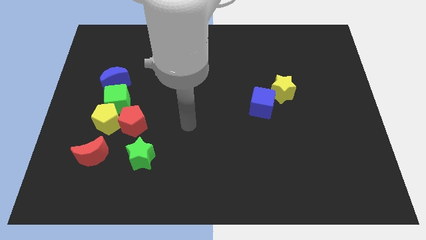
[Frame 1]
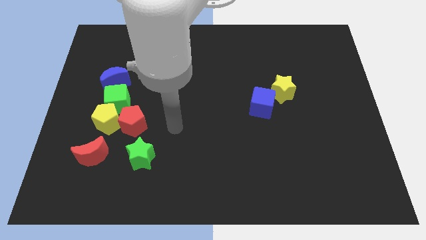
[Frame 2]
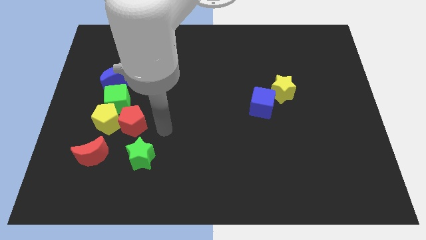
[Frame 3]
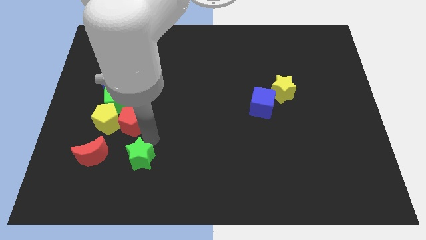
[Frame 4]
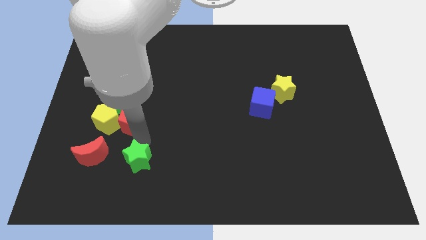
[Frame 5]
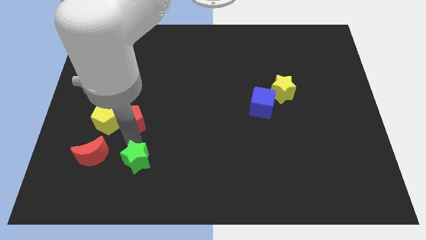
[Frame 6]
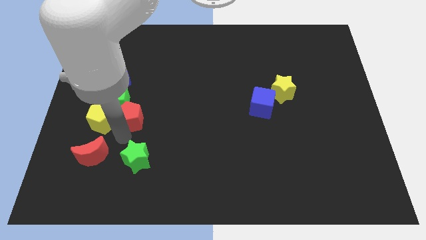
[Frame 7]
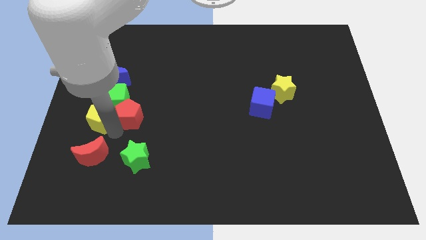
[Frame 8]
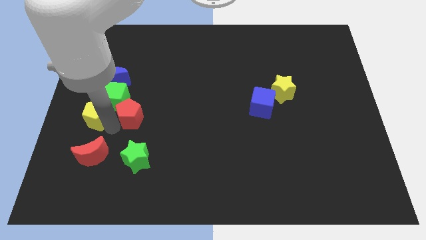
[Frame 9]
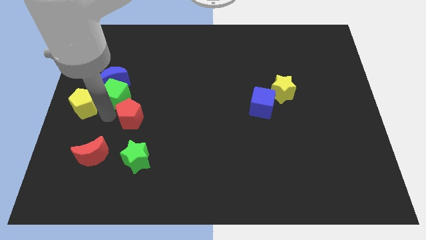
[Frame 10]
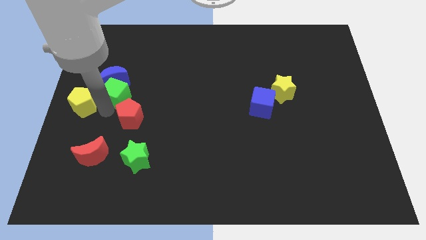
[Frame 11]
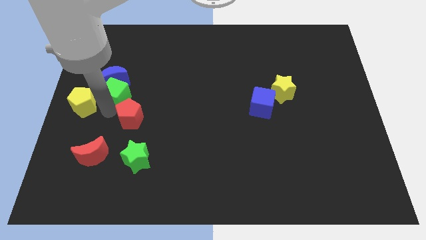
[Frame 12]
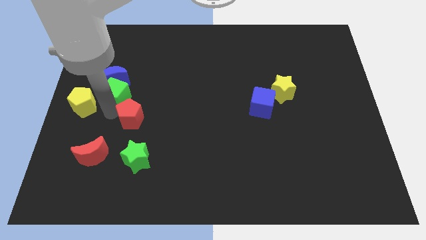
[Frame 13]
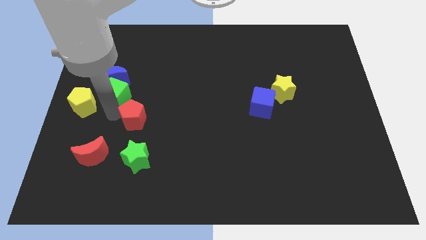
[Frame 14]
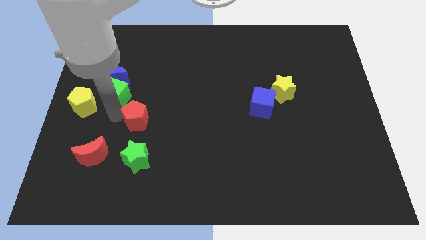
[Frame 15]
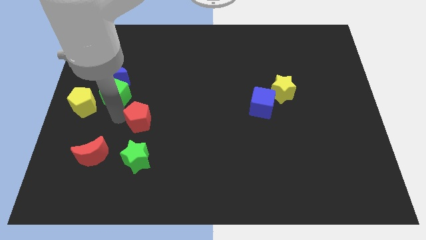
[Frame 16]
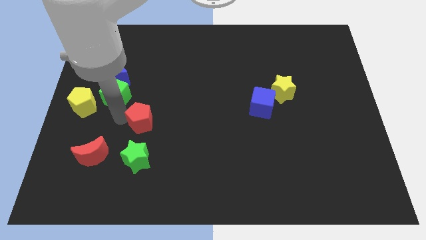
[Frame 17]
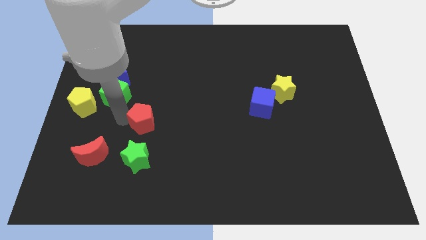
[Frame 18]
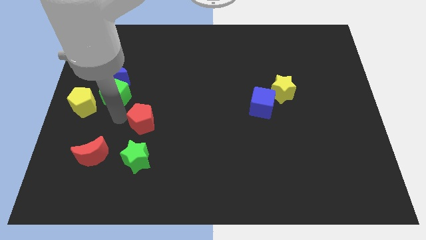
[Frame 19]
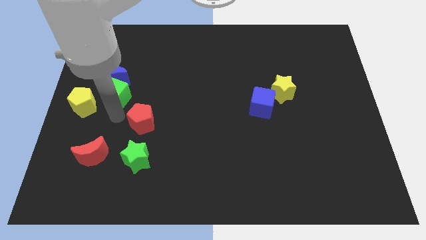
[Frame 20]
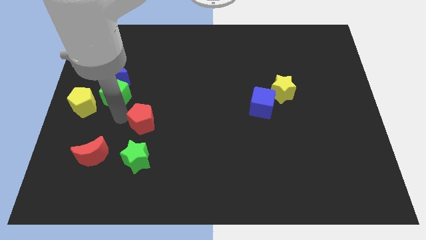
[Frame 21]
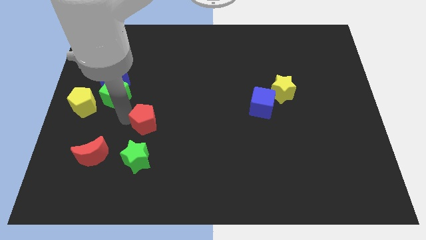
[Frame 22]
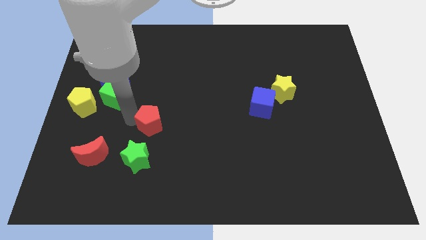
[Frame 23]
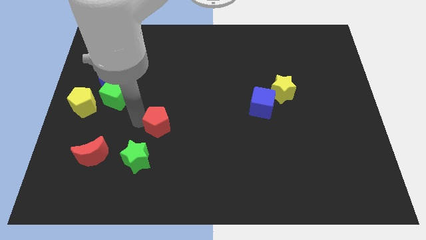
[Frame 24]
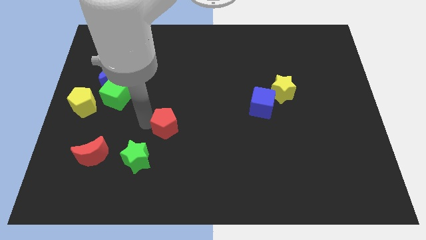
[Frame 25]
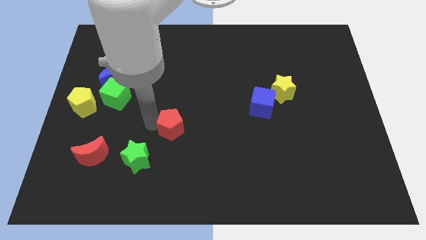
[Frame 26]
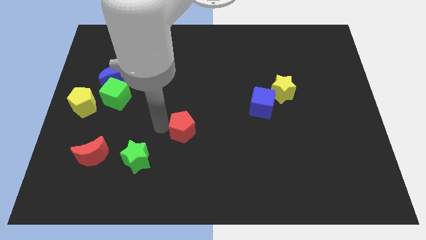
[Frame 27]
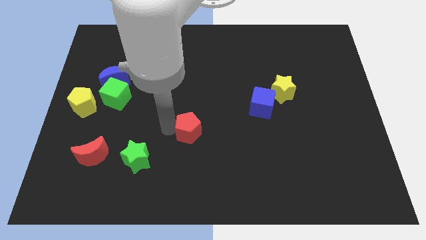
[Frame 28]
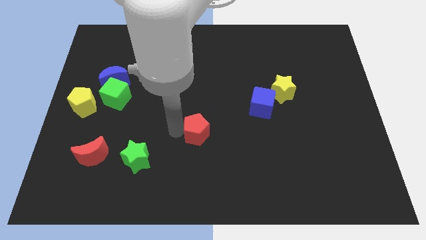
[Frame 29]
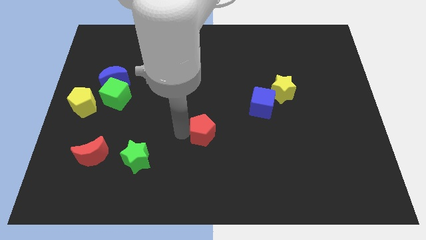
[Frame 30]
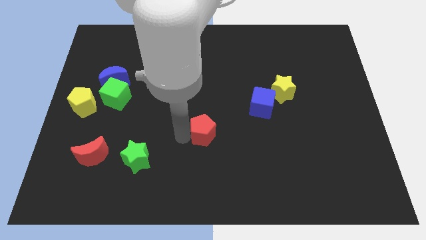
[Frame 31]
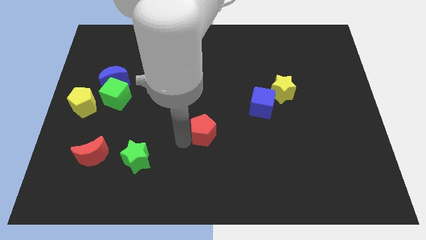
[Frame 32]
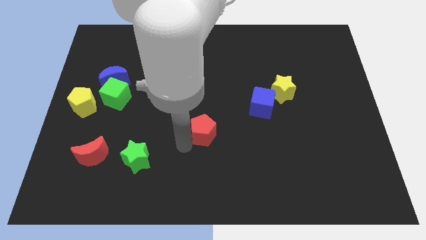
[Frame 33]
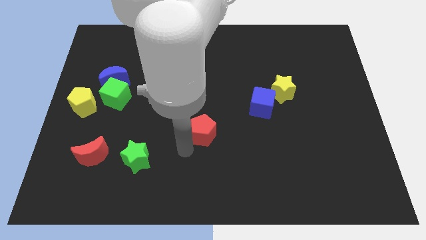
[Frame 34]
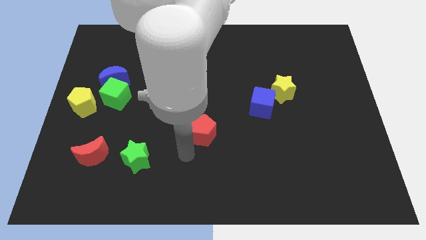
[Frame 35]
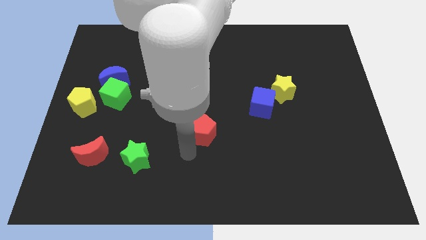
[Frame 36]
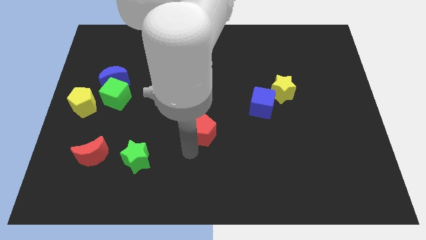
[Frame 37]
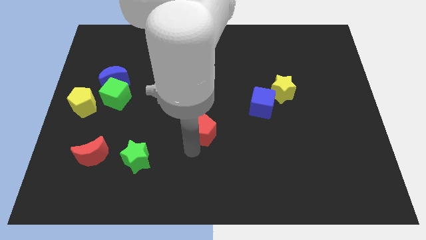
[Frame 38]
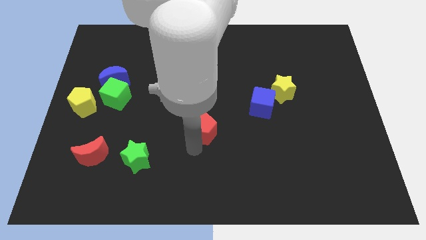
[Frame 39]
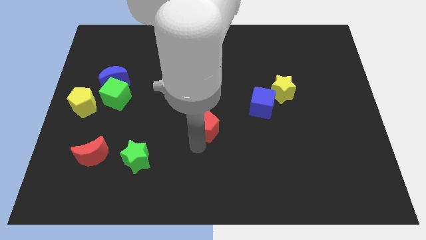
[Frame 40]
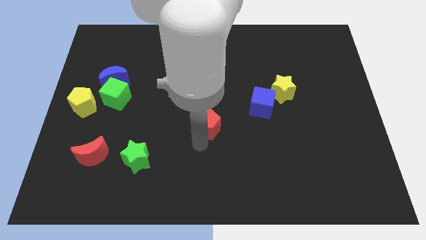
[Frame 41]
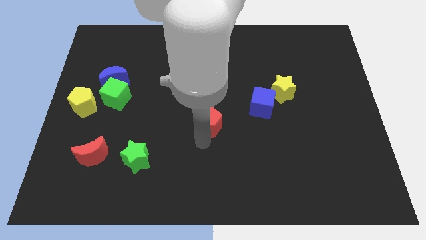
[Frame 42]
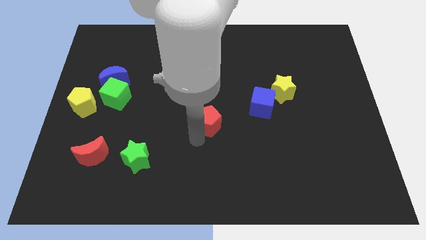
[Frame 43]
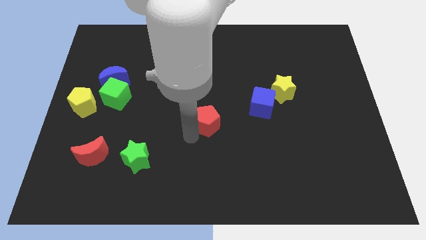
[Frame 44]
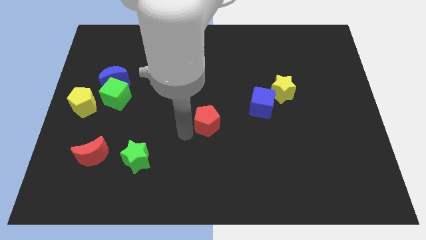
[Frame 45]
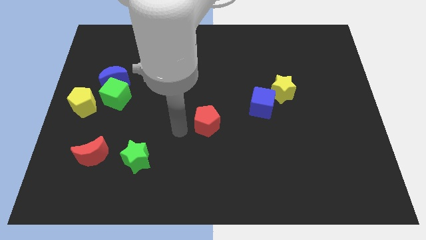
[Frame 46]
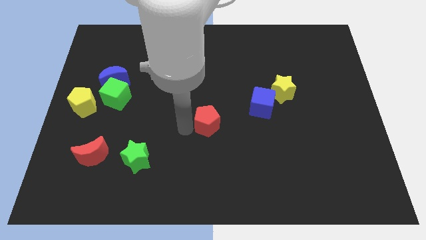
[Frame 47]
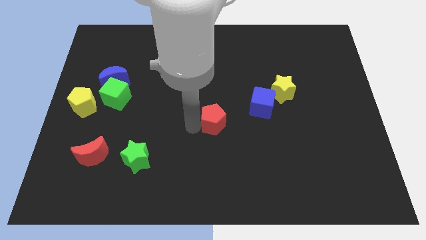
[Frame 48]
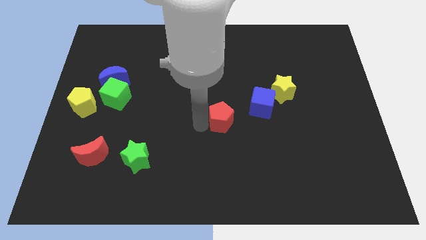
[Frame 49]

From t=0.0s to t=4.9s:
push the red pentagon right

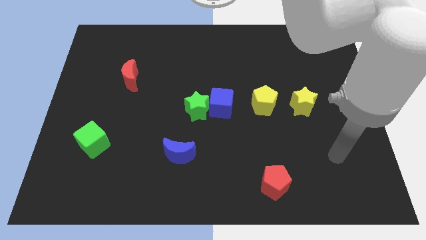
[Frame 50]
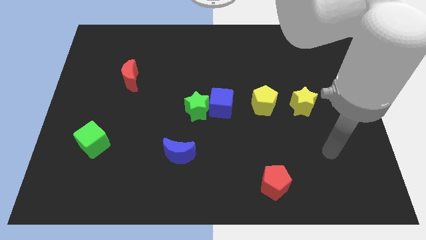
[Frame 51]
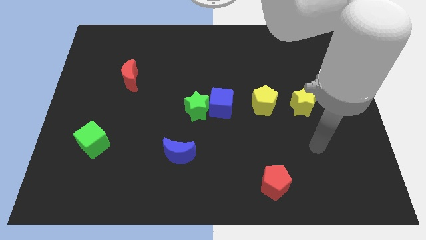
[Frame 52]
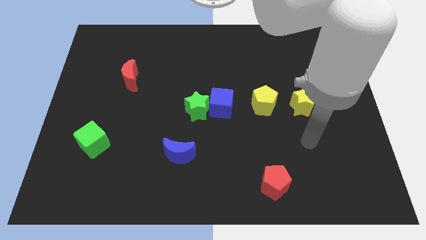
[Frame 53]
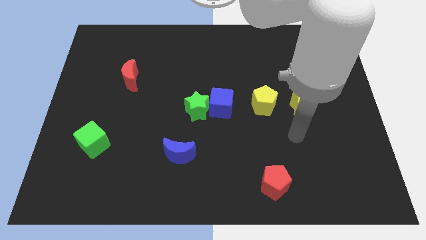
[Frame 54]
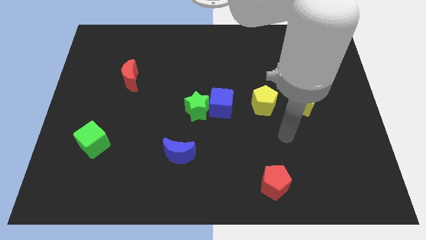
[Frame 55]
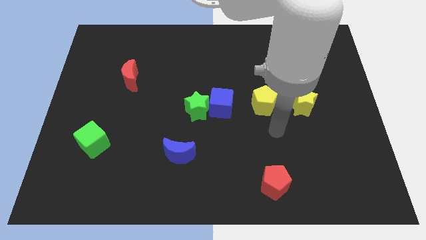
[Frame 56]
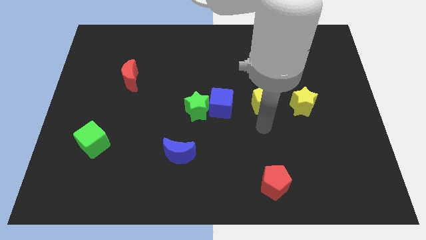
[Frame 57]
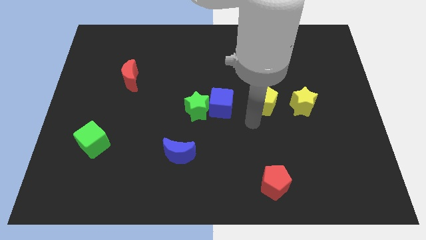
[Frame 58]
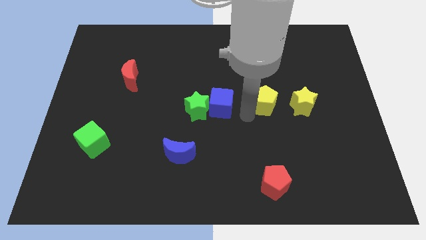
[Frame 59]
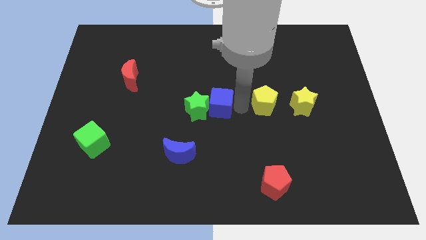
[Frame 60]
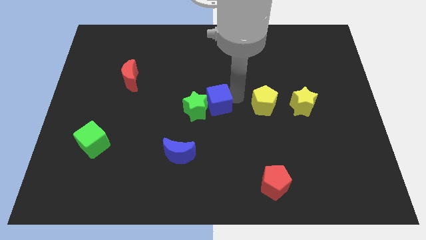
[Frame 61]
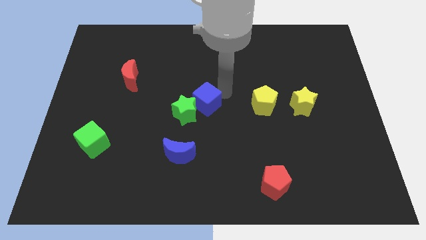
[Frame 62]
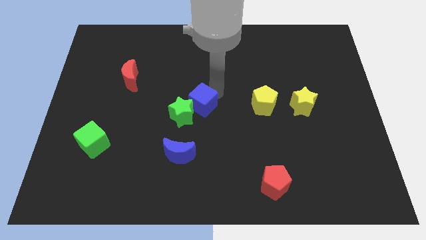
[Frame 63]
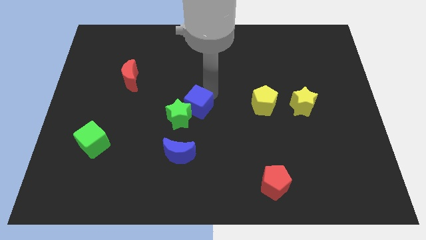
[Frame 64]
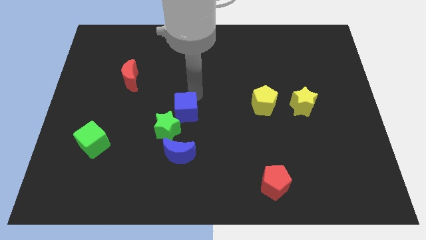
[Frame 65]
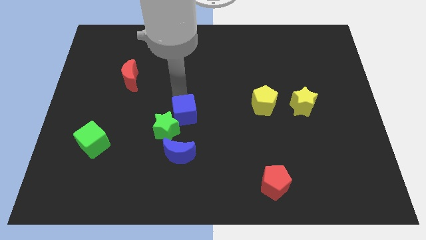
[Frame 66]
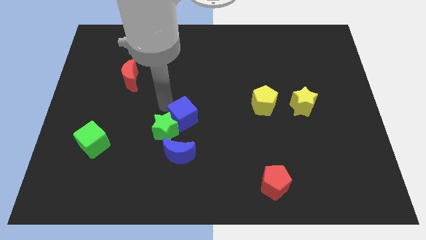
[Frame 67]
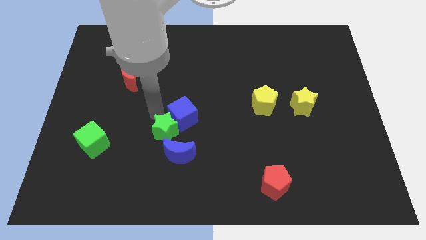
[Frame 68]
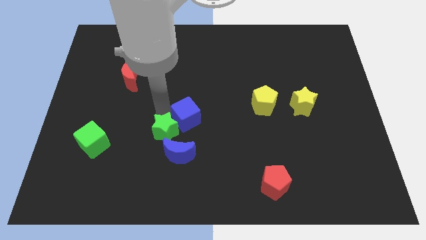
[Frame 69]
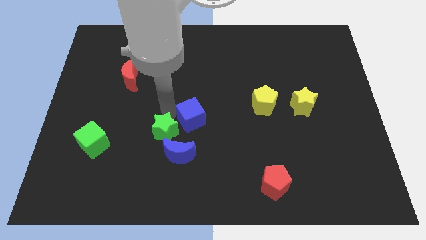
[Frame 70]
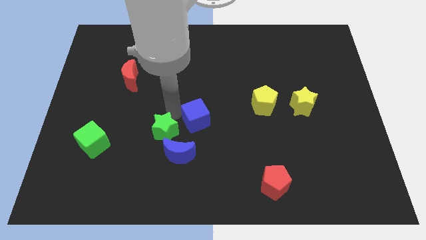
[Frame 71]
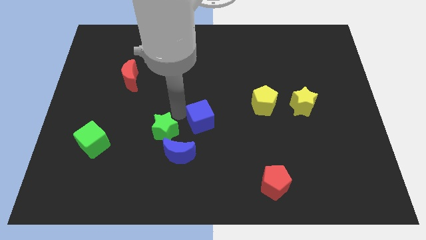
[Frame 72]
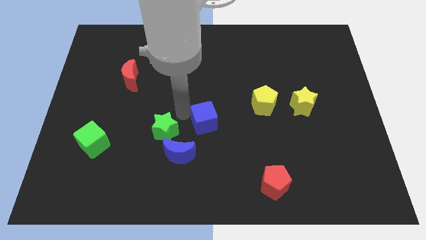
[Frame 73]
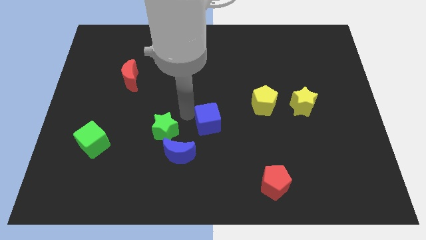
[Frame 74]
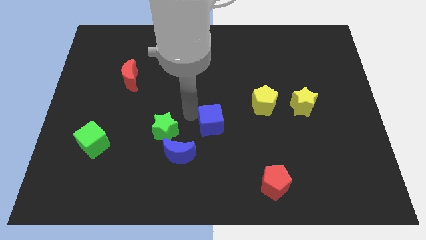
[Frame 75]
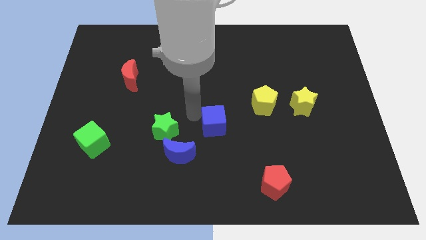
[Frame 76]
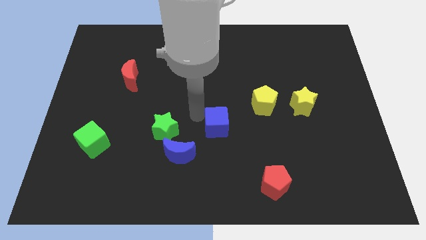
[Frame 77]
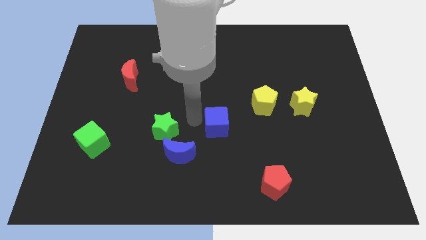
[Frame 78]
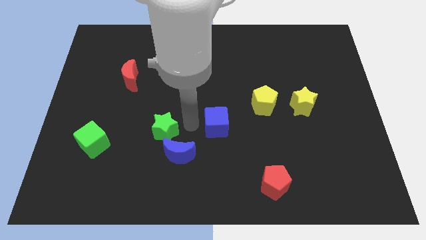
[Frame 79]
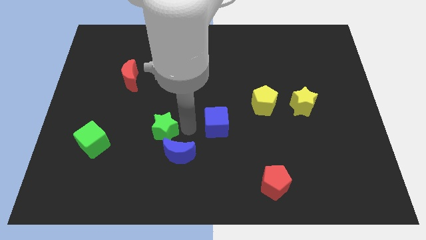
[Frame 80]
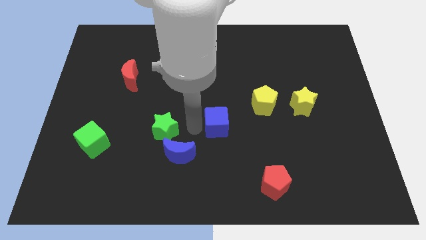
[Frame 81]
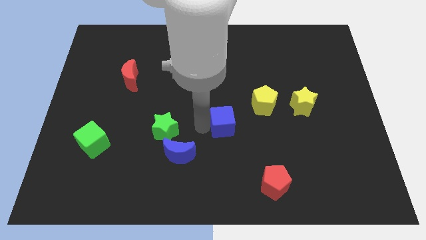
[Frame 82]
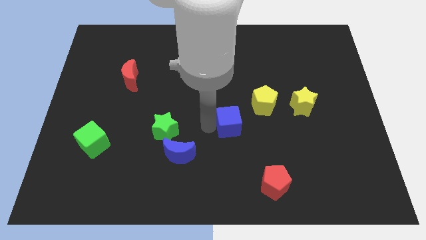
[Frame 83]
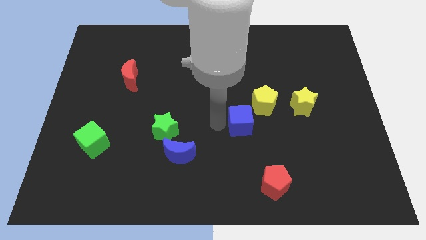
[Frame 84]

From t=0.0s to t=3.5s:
slide the blue cube a bit down and to the right diagonally
